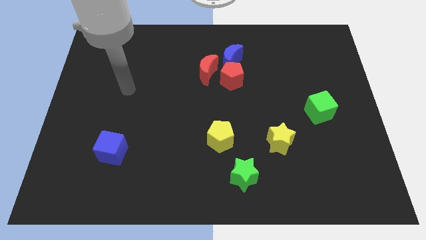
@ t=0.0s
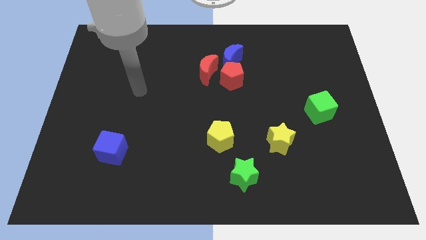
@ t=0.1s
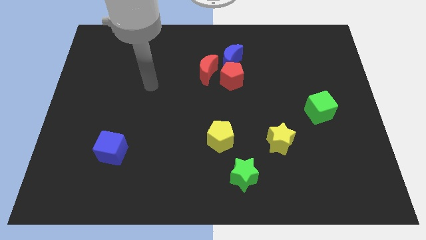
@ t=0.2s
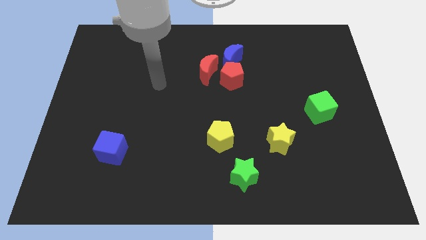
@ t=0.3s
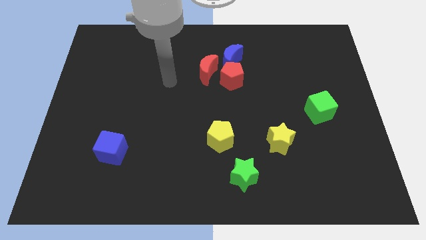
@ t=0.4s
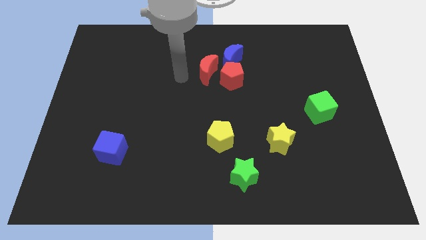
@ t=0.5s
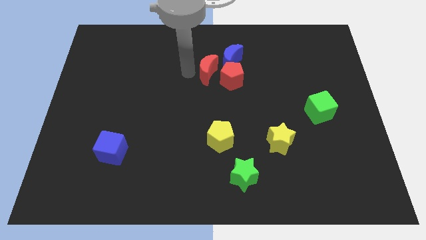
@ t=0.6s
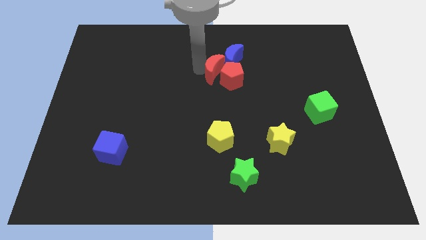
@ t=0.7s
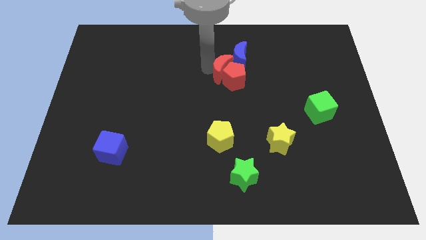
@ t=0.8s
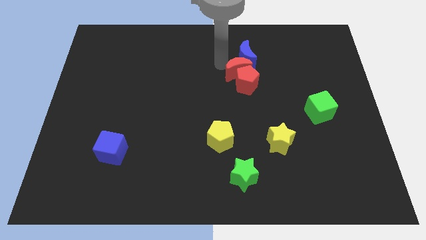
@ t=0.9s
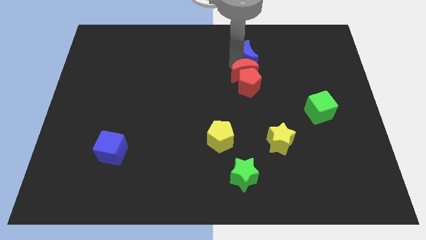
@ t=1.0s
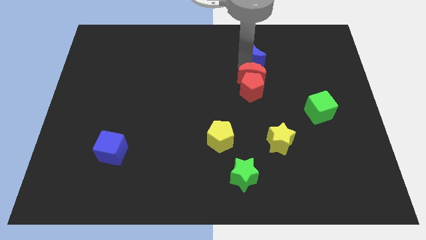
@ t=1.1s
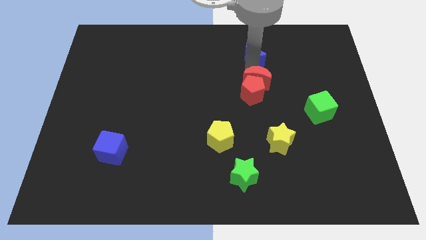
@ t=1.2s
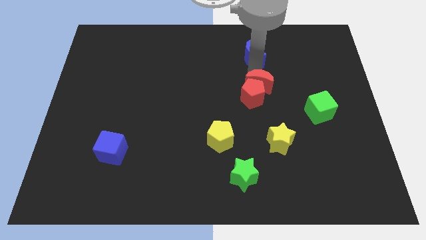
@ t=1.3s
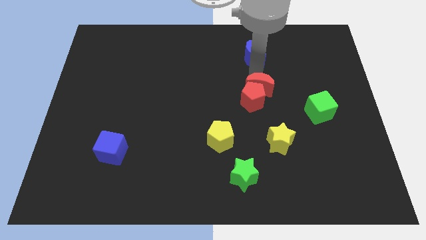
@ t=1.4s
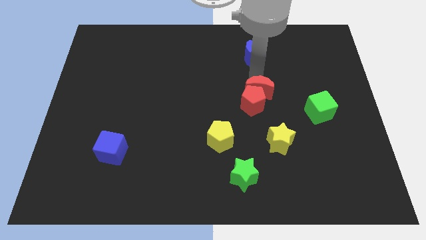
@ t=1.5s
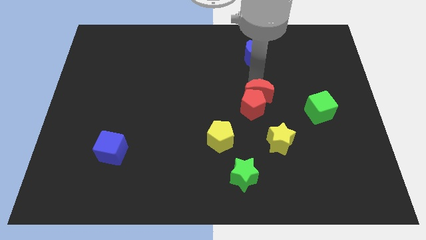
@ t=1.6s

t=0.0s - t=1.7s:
move the red pentagon away from the blue moon and red moon

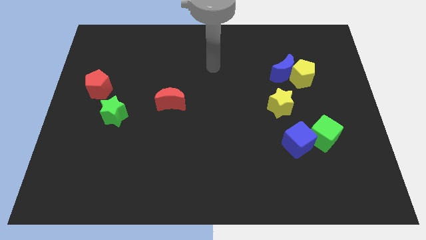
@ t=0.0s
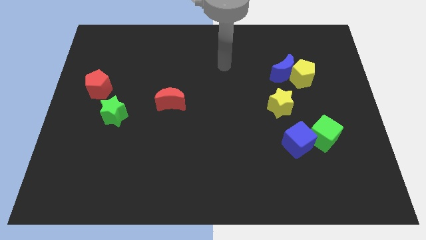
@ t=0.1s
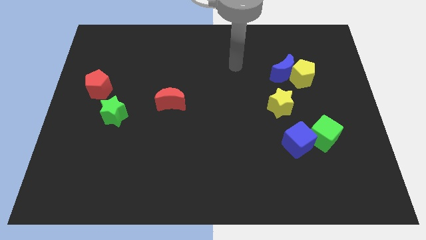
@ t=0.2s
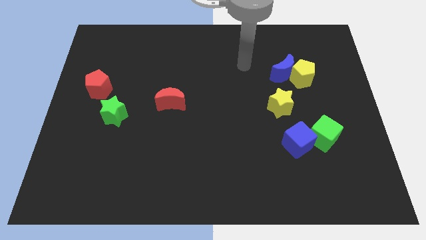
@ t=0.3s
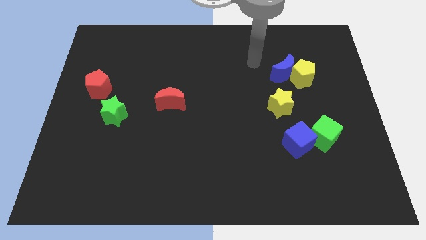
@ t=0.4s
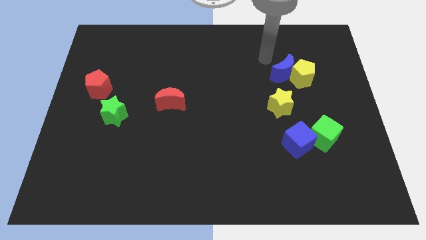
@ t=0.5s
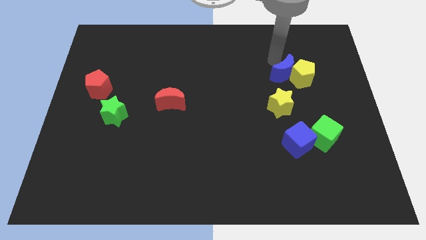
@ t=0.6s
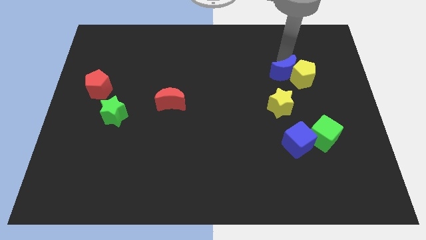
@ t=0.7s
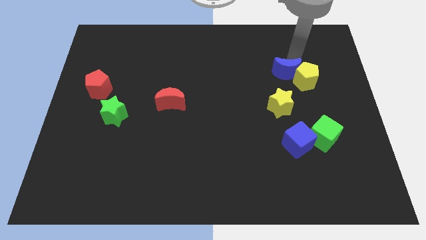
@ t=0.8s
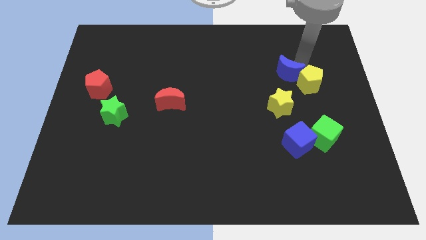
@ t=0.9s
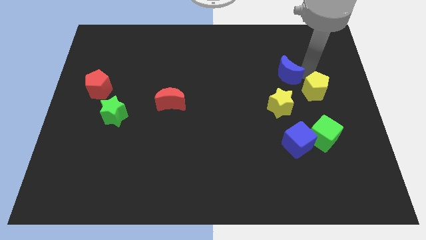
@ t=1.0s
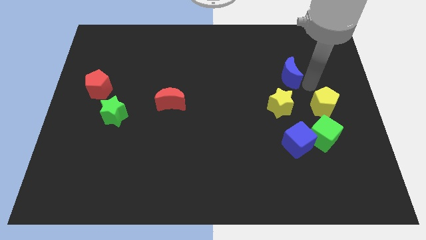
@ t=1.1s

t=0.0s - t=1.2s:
pull the blue moon apart from the yellow pentagon

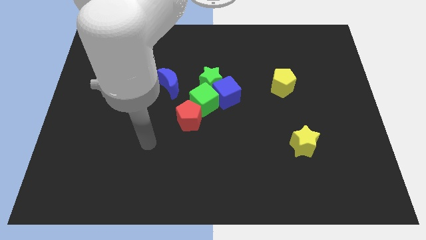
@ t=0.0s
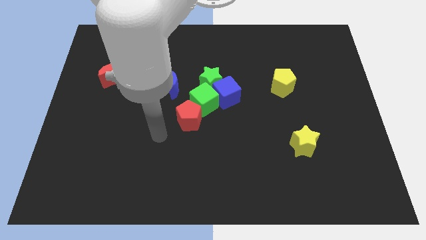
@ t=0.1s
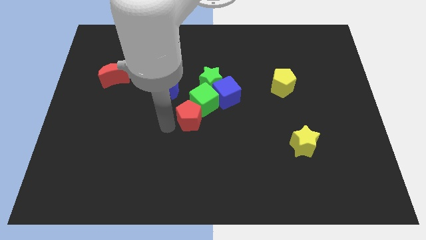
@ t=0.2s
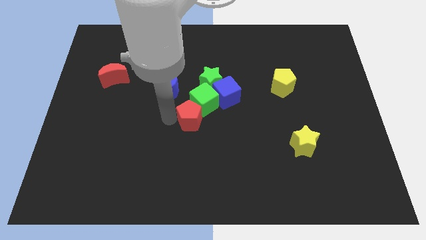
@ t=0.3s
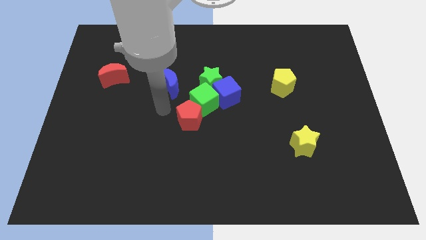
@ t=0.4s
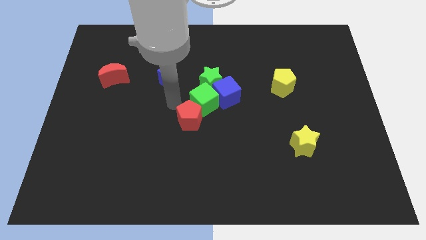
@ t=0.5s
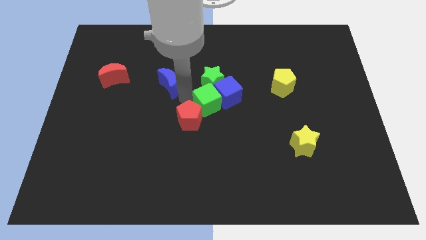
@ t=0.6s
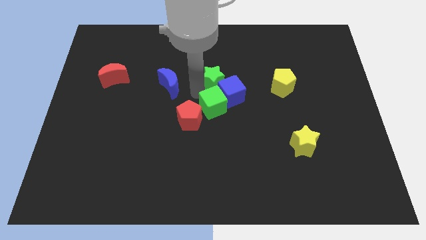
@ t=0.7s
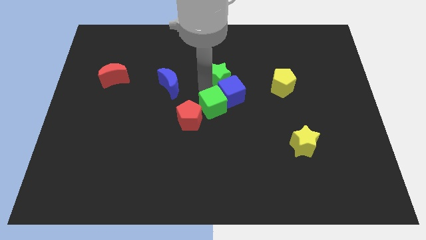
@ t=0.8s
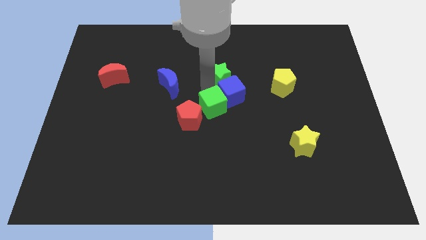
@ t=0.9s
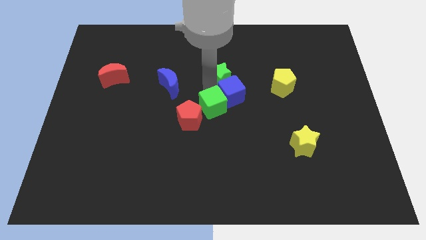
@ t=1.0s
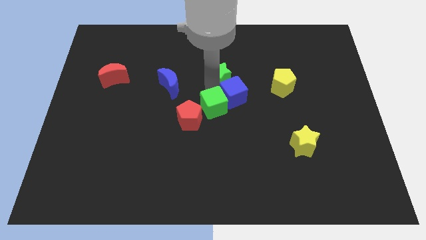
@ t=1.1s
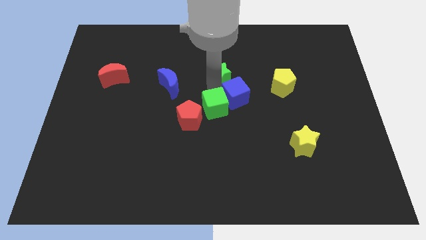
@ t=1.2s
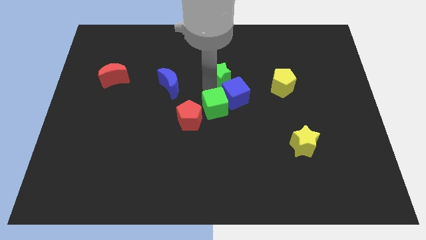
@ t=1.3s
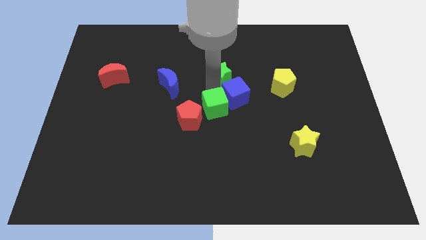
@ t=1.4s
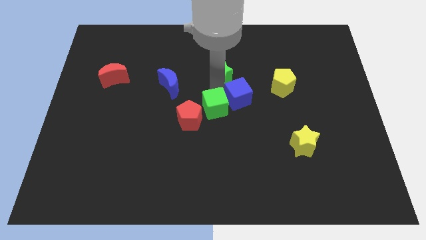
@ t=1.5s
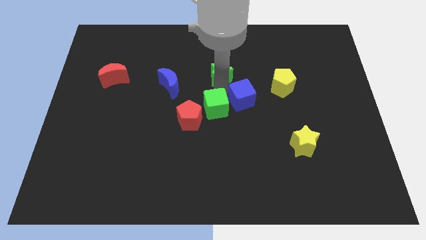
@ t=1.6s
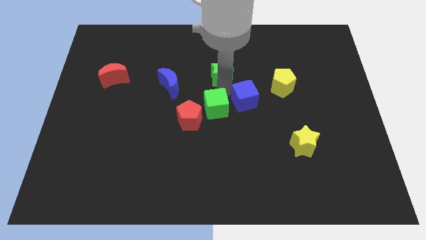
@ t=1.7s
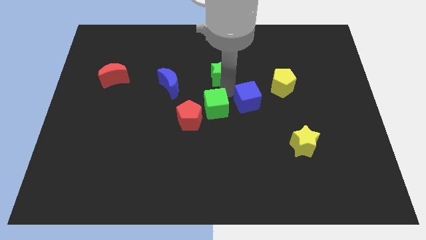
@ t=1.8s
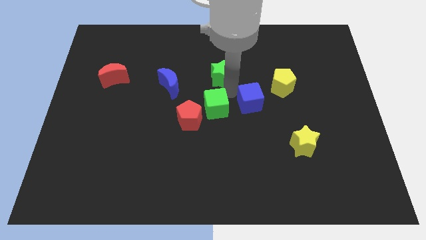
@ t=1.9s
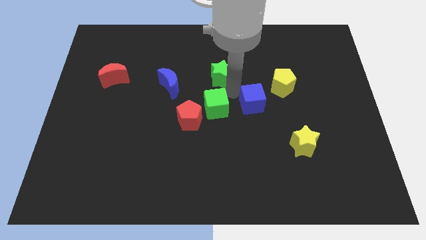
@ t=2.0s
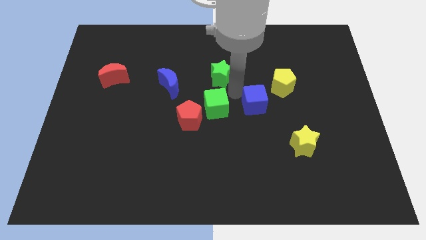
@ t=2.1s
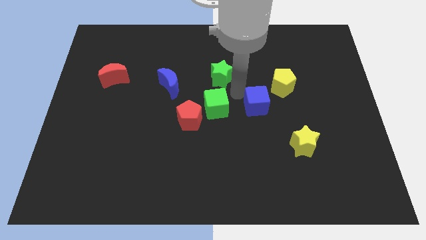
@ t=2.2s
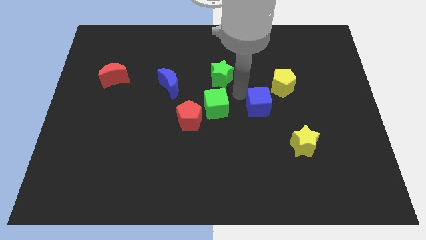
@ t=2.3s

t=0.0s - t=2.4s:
pull the blue cube apart from the green star and green cube

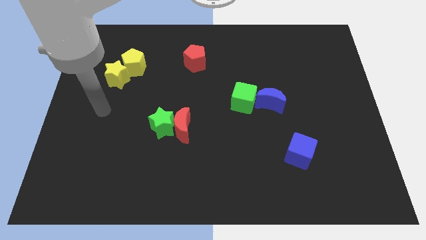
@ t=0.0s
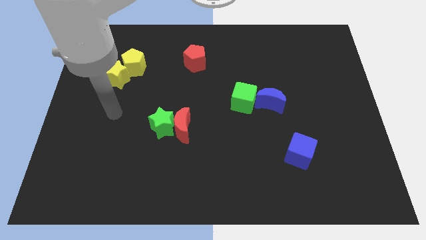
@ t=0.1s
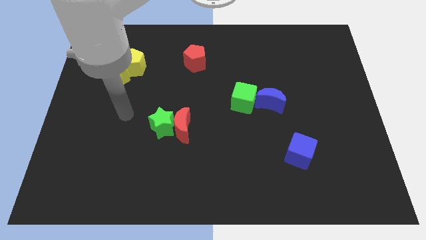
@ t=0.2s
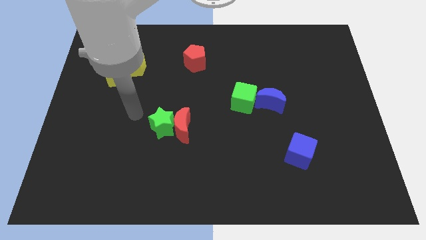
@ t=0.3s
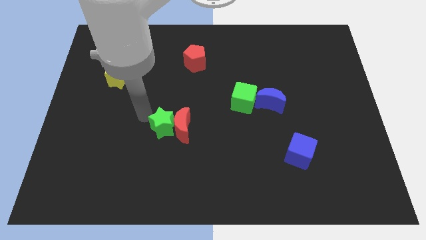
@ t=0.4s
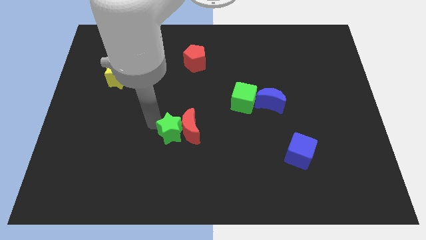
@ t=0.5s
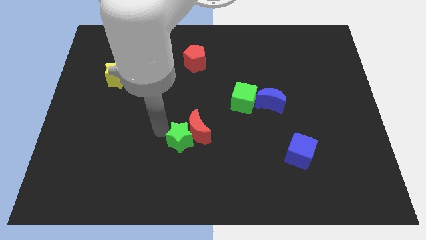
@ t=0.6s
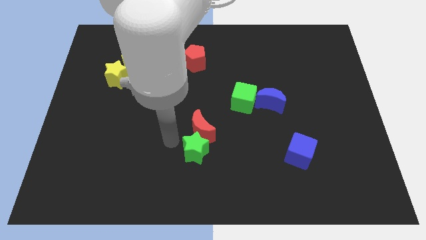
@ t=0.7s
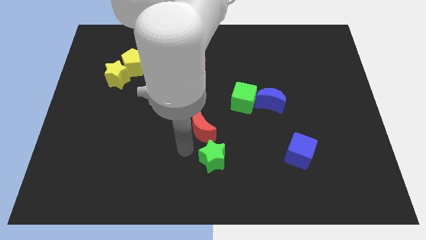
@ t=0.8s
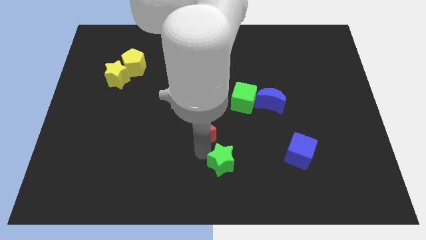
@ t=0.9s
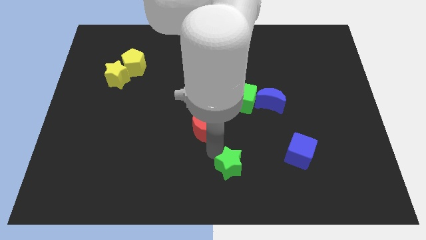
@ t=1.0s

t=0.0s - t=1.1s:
pull the red moon apart from the green star

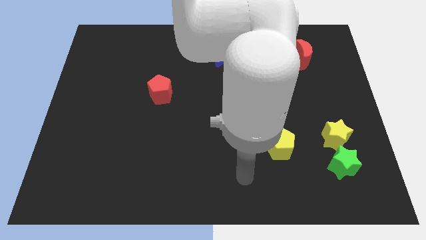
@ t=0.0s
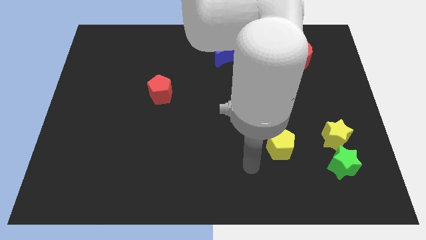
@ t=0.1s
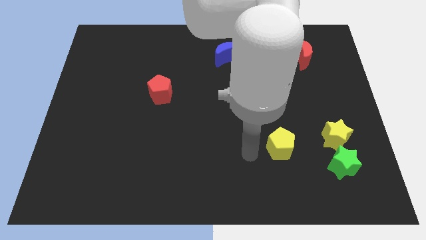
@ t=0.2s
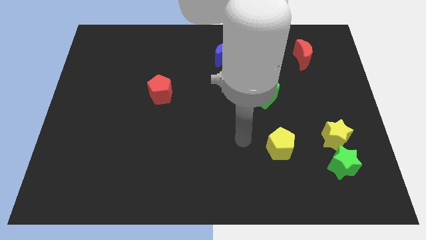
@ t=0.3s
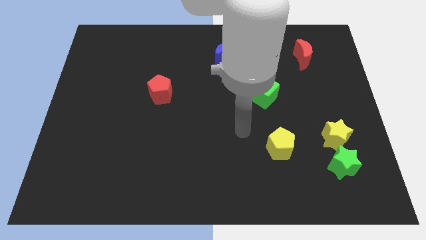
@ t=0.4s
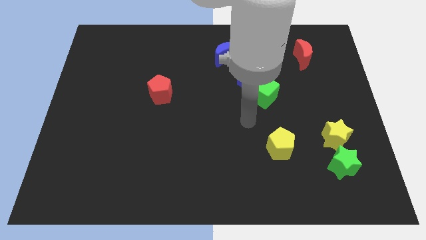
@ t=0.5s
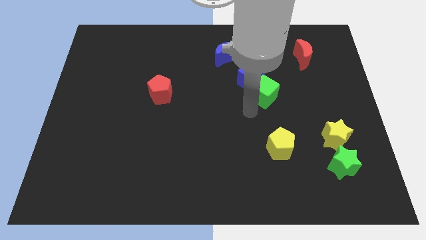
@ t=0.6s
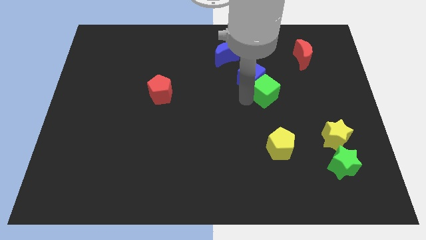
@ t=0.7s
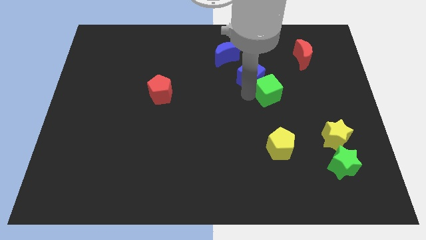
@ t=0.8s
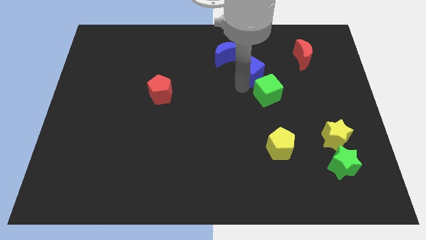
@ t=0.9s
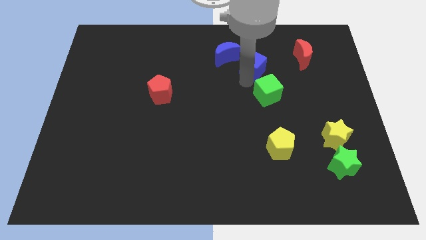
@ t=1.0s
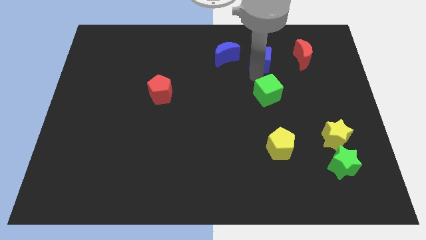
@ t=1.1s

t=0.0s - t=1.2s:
move the green cube away from the blue cube

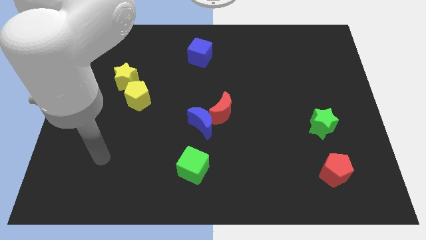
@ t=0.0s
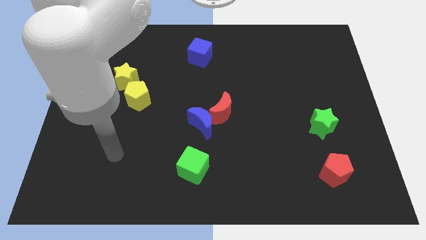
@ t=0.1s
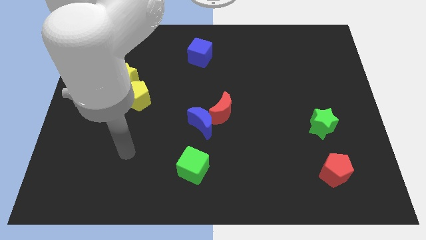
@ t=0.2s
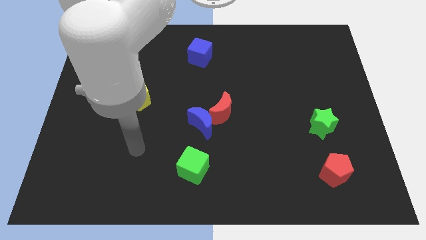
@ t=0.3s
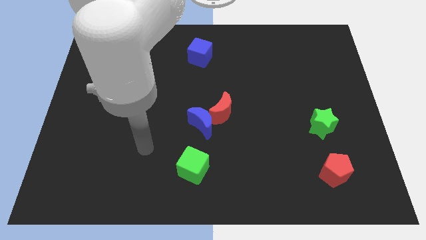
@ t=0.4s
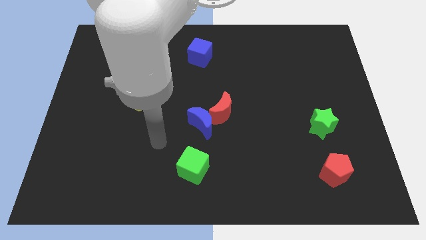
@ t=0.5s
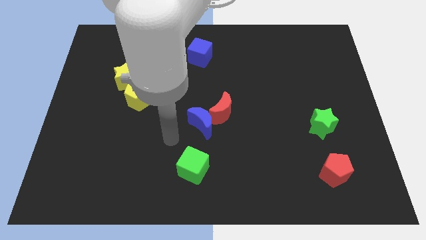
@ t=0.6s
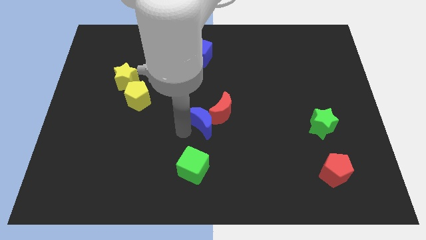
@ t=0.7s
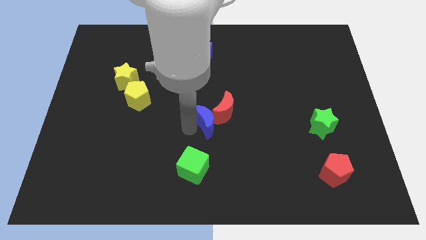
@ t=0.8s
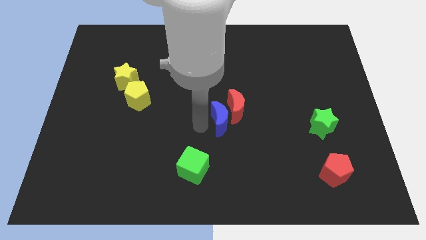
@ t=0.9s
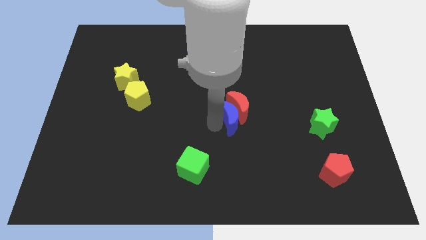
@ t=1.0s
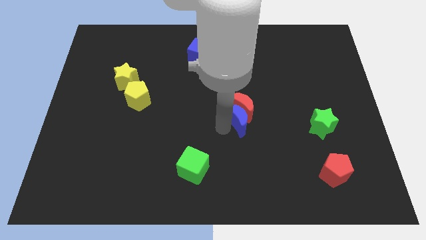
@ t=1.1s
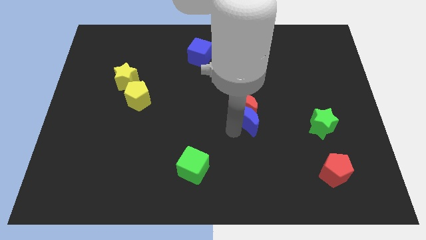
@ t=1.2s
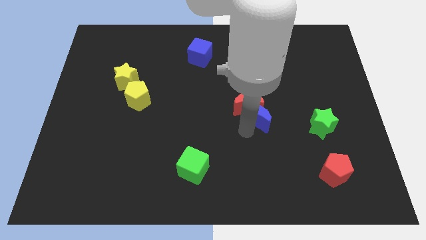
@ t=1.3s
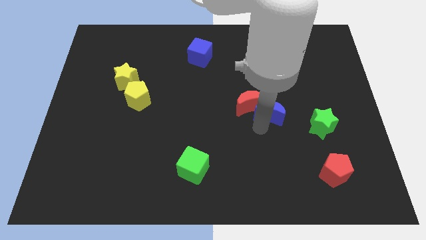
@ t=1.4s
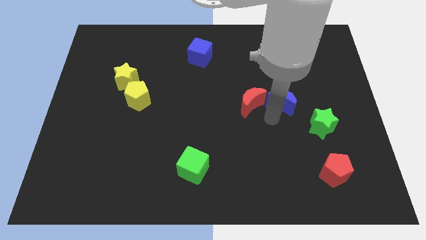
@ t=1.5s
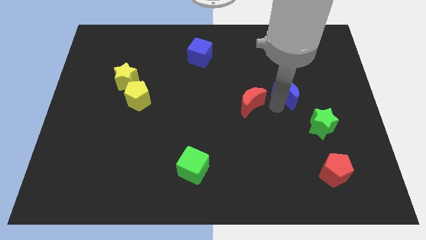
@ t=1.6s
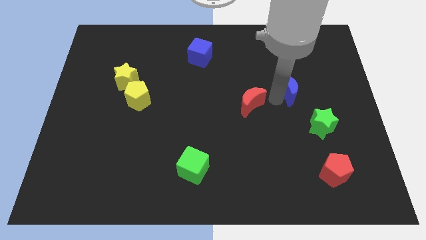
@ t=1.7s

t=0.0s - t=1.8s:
move the red moon away from the blue moon
